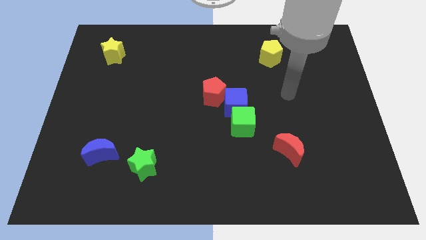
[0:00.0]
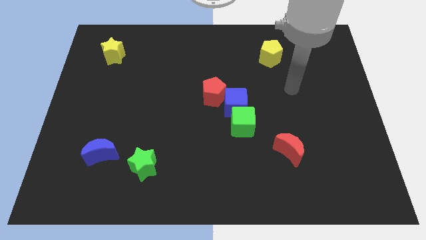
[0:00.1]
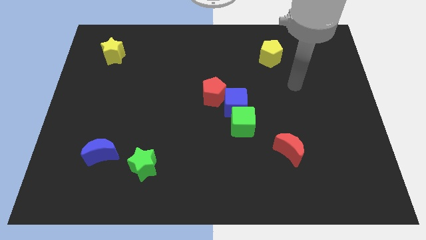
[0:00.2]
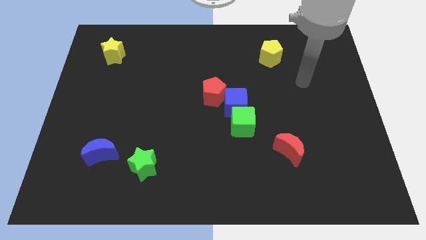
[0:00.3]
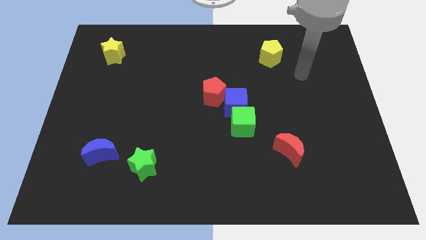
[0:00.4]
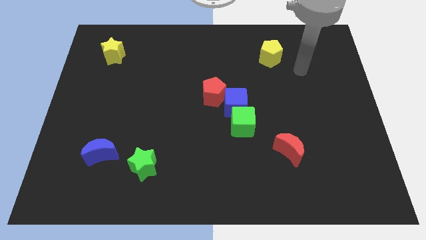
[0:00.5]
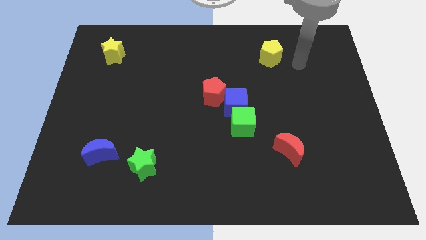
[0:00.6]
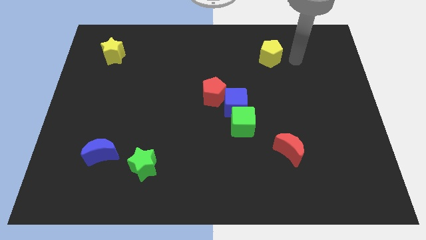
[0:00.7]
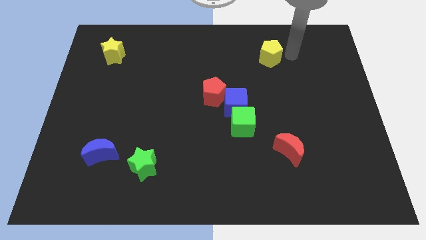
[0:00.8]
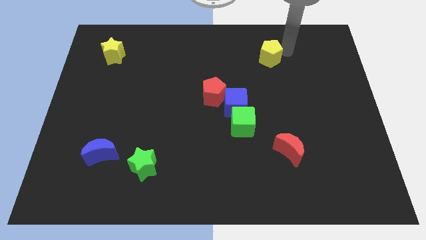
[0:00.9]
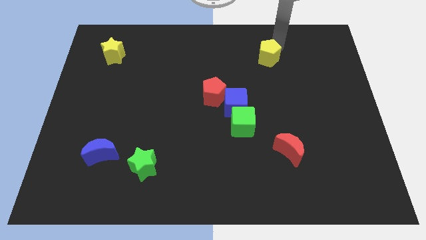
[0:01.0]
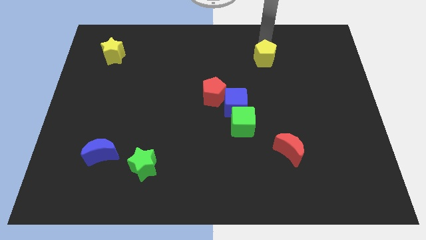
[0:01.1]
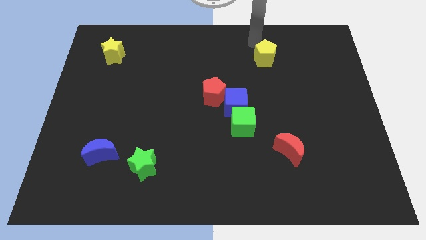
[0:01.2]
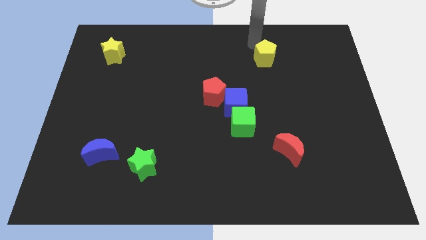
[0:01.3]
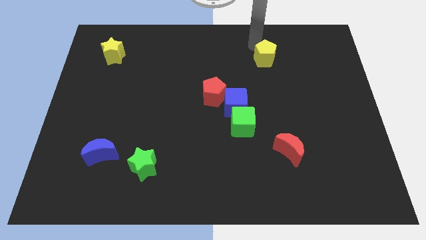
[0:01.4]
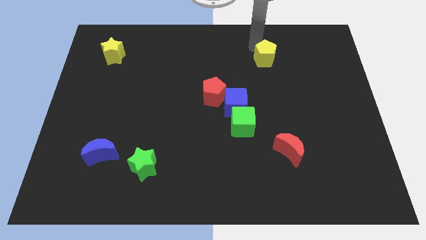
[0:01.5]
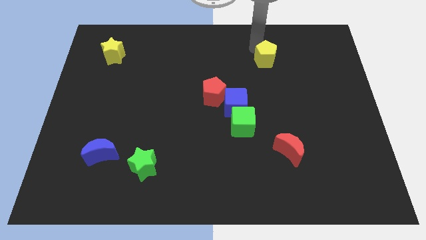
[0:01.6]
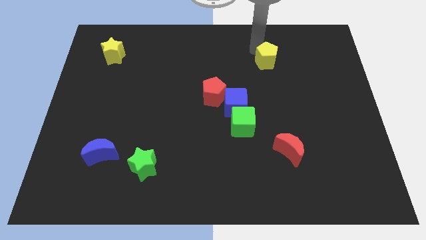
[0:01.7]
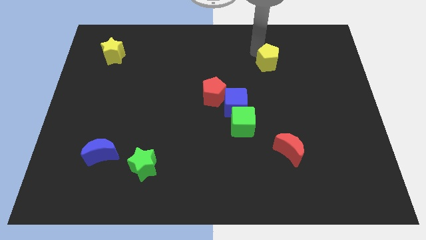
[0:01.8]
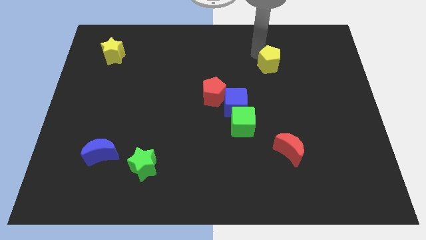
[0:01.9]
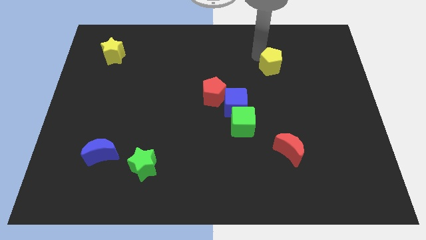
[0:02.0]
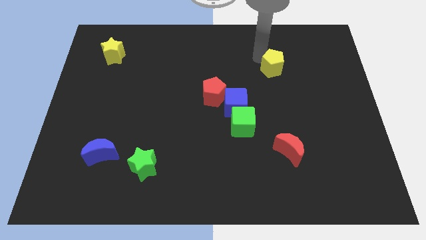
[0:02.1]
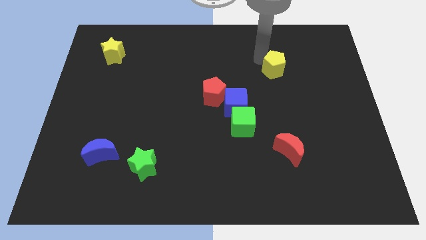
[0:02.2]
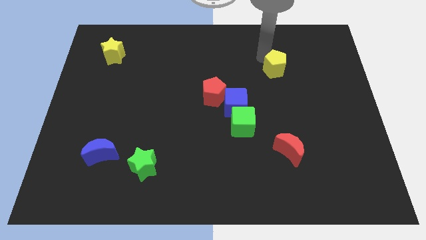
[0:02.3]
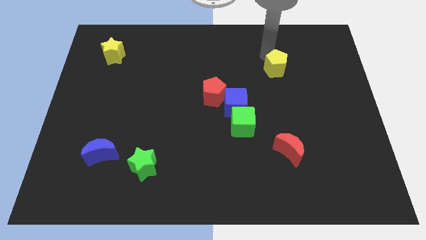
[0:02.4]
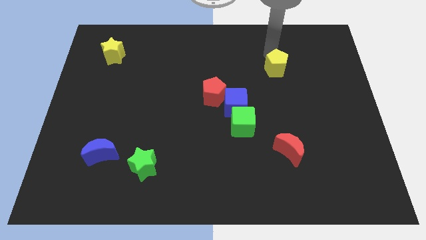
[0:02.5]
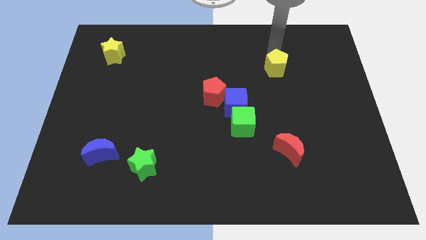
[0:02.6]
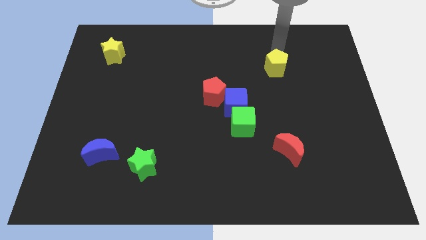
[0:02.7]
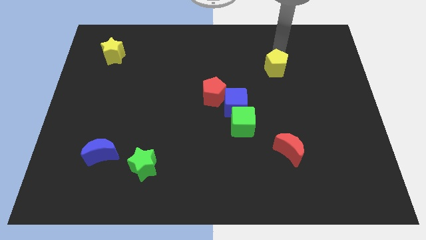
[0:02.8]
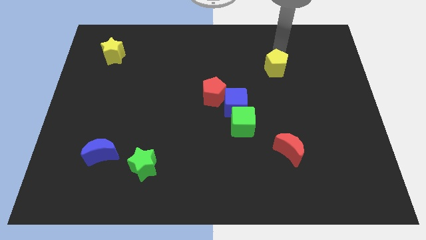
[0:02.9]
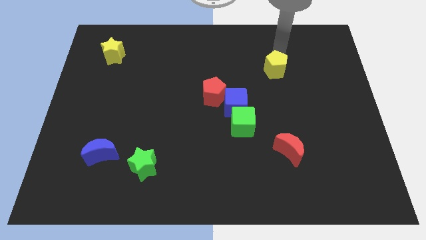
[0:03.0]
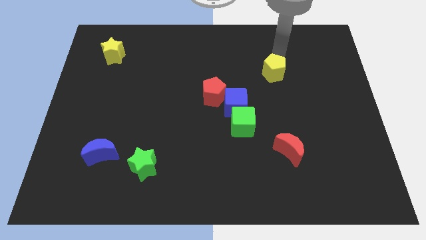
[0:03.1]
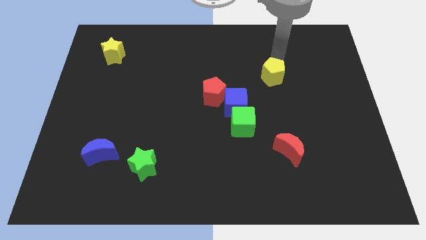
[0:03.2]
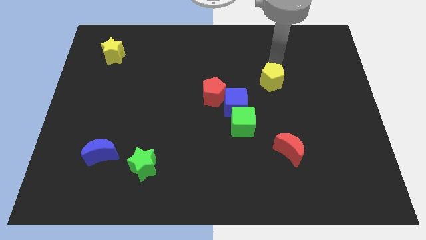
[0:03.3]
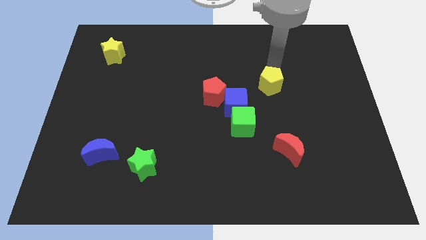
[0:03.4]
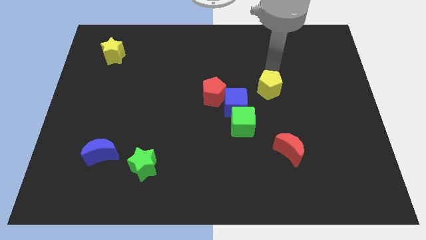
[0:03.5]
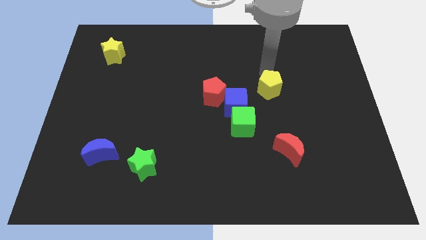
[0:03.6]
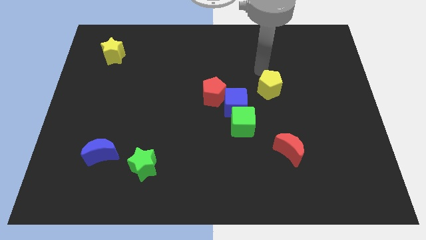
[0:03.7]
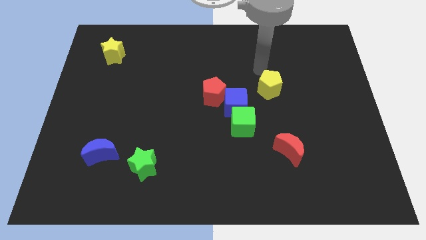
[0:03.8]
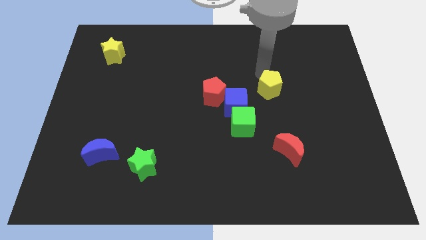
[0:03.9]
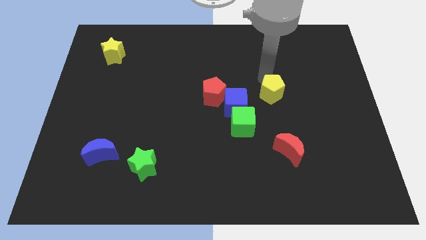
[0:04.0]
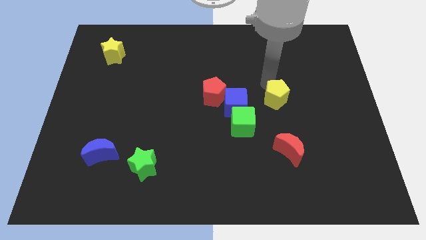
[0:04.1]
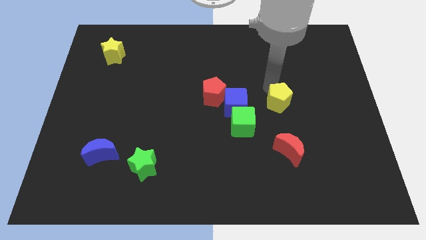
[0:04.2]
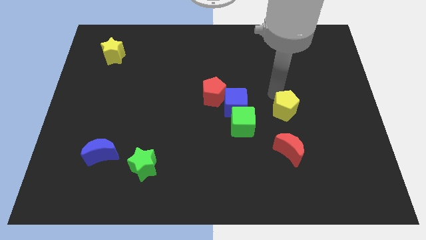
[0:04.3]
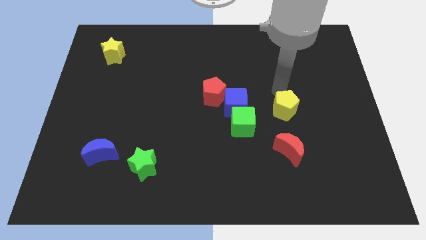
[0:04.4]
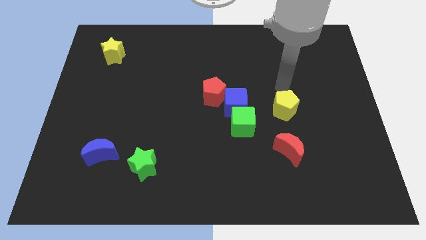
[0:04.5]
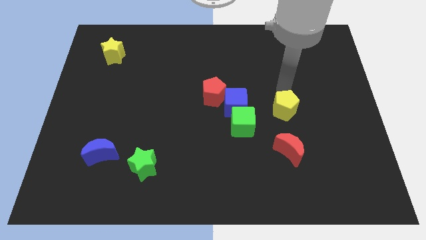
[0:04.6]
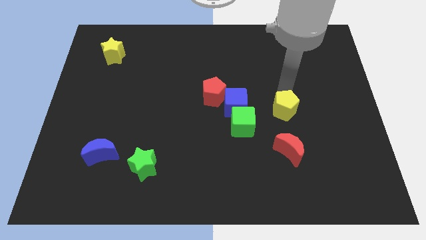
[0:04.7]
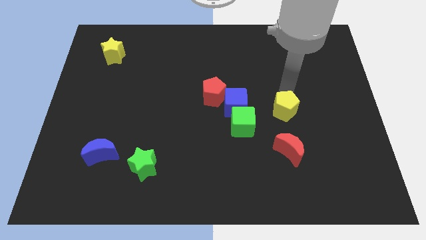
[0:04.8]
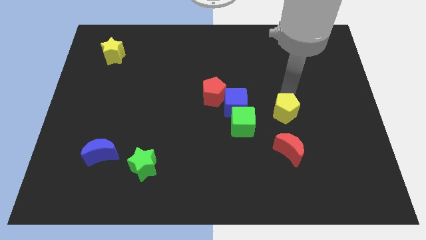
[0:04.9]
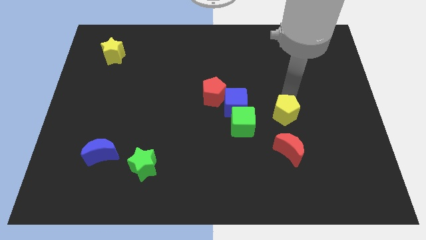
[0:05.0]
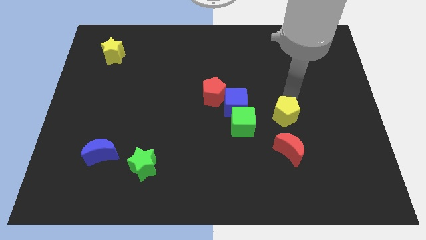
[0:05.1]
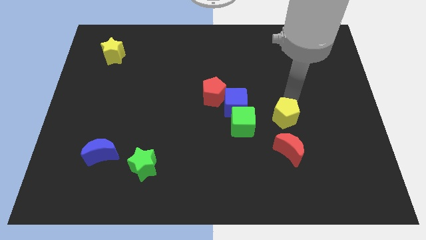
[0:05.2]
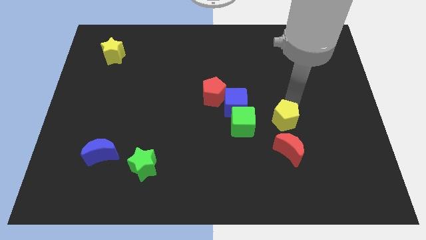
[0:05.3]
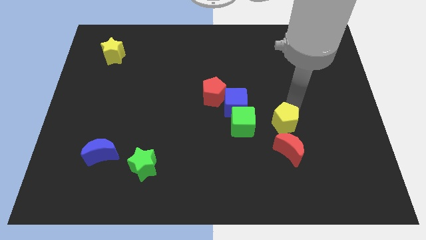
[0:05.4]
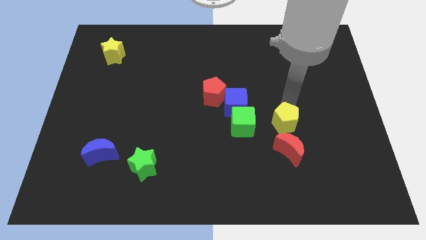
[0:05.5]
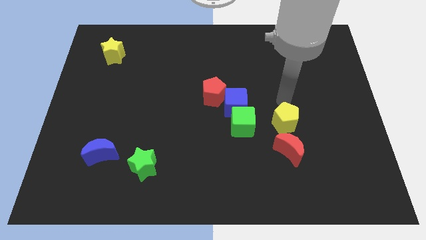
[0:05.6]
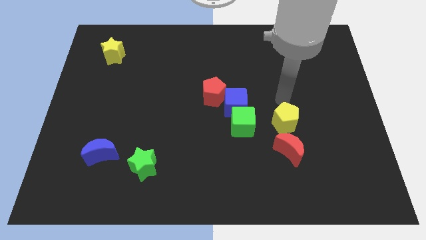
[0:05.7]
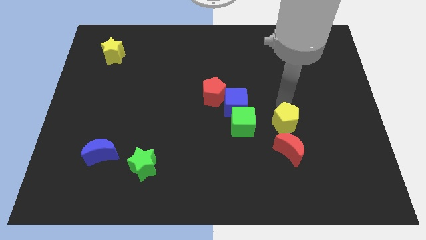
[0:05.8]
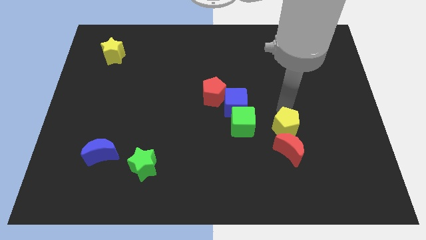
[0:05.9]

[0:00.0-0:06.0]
move the yellow pentagon close to the red moon

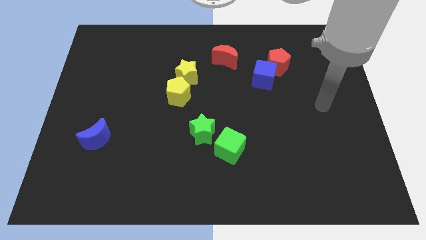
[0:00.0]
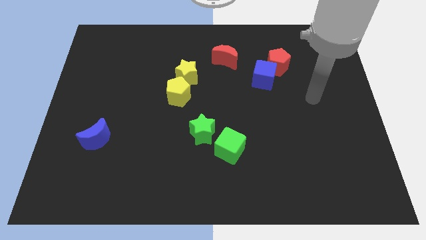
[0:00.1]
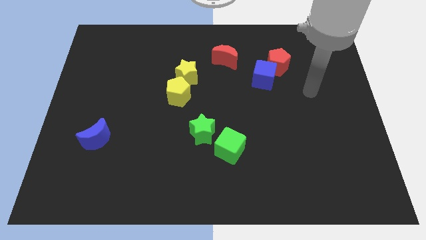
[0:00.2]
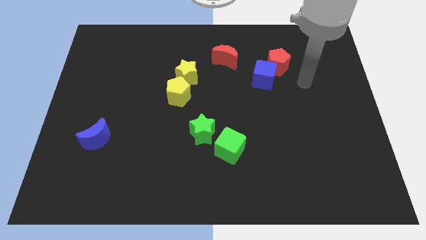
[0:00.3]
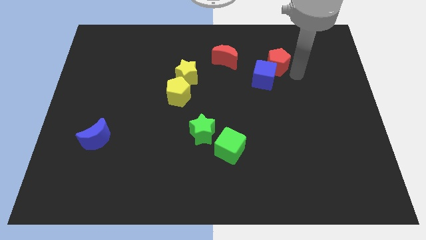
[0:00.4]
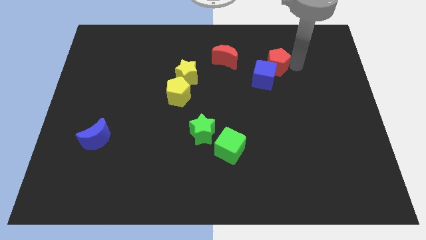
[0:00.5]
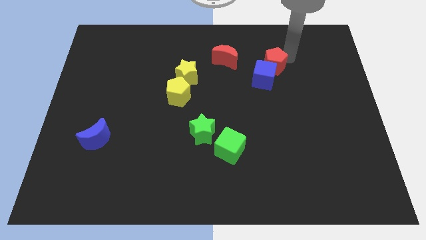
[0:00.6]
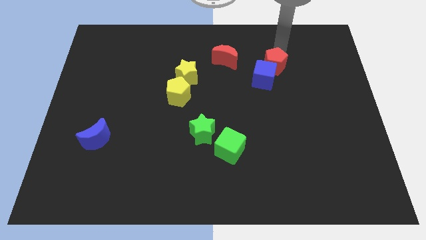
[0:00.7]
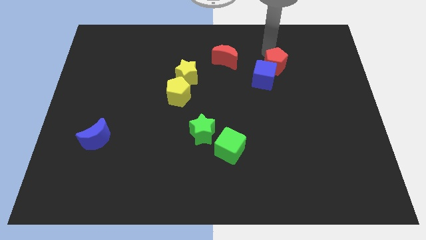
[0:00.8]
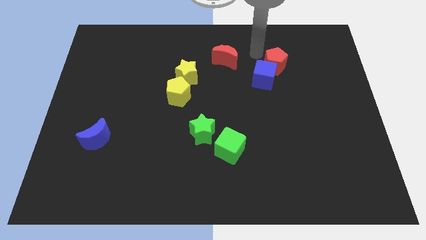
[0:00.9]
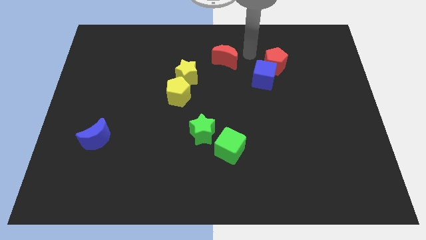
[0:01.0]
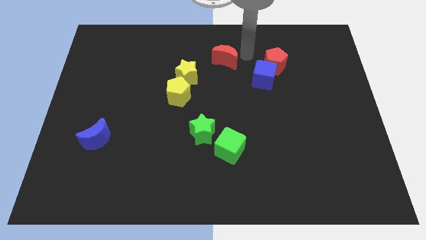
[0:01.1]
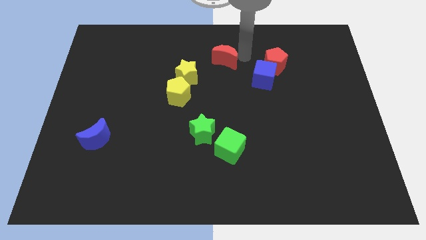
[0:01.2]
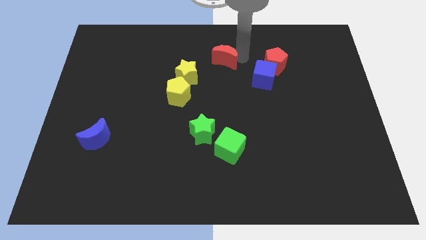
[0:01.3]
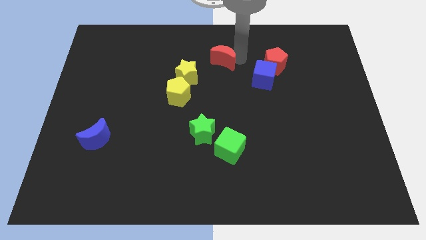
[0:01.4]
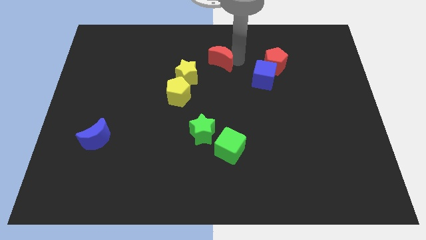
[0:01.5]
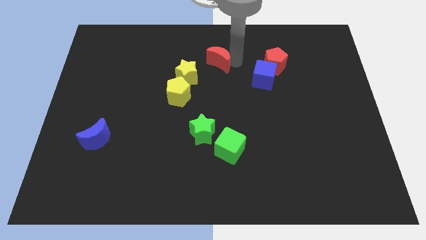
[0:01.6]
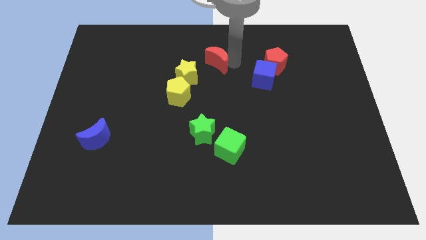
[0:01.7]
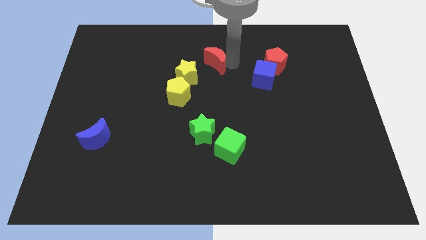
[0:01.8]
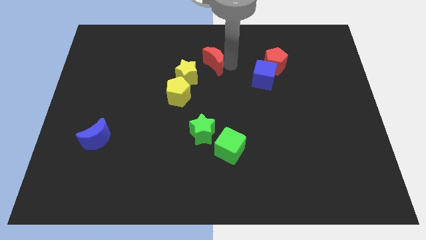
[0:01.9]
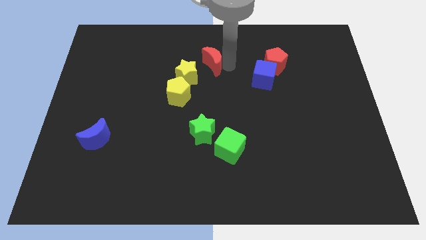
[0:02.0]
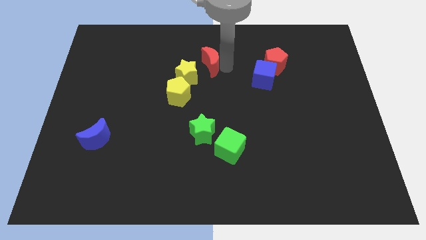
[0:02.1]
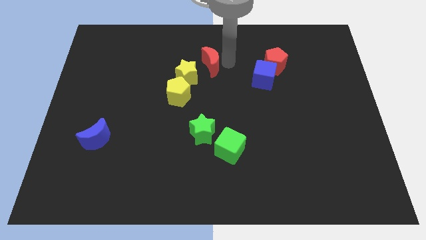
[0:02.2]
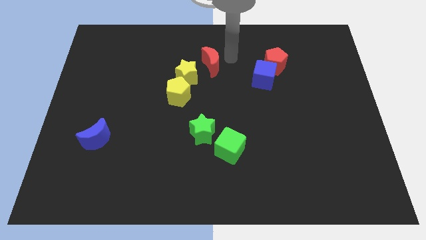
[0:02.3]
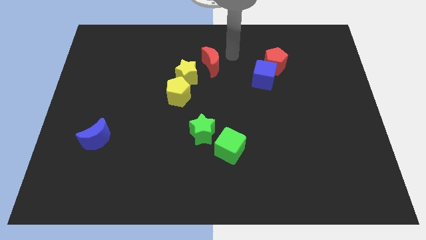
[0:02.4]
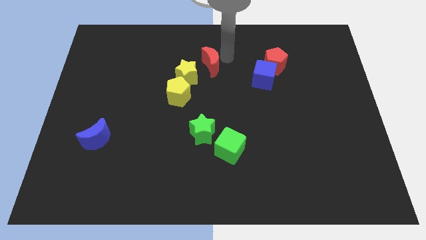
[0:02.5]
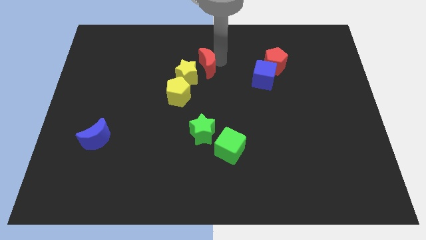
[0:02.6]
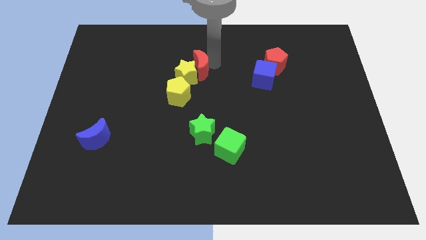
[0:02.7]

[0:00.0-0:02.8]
slide the red moon next to the yellow star
